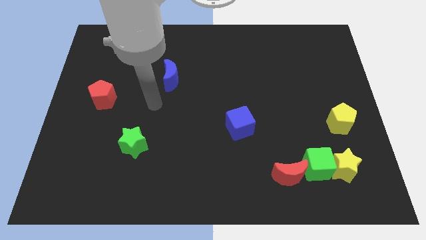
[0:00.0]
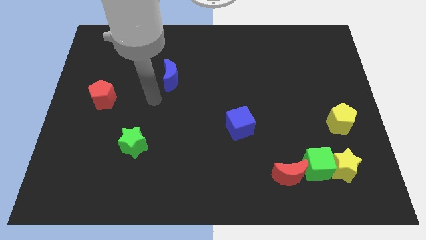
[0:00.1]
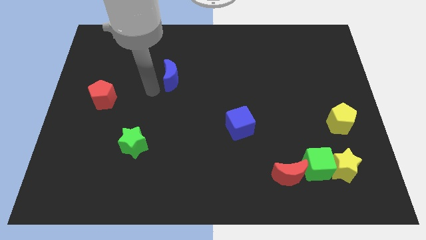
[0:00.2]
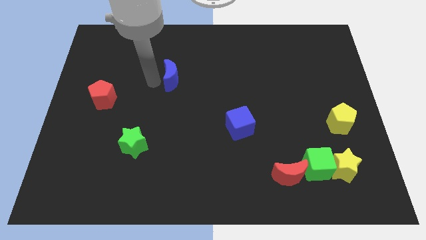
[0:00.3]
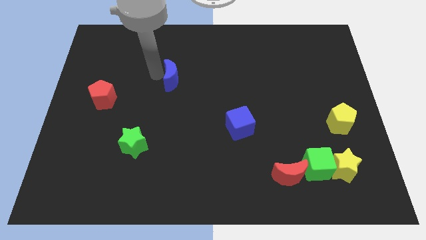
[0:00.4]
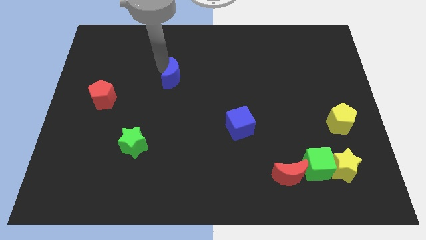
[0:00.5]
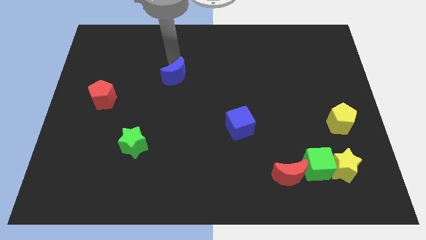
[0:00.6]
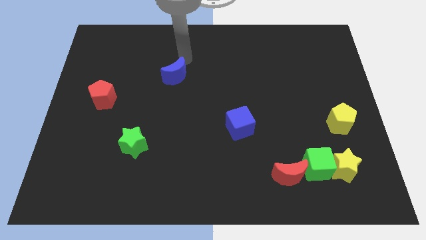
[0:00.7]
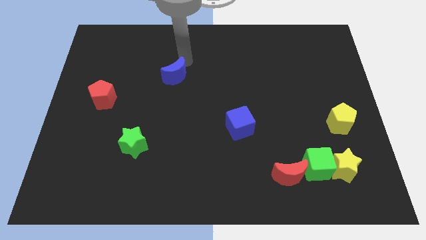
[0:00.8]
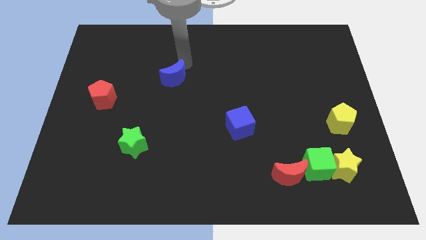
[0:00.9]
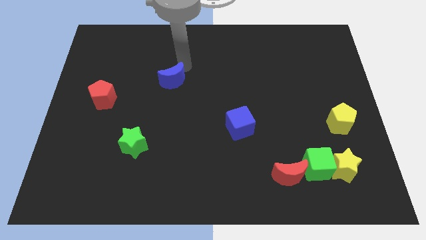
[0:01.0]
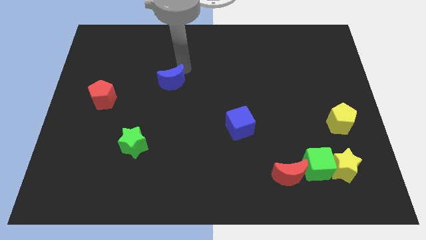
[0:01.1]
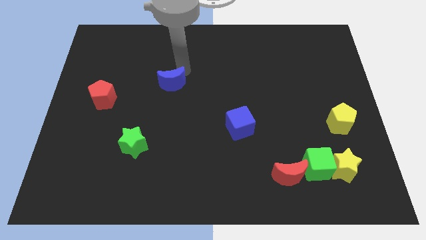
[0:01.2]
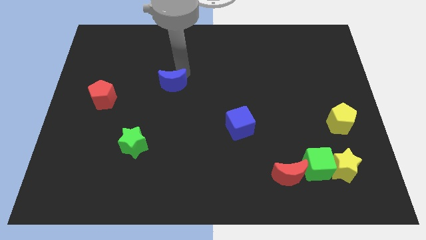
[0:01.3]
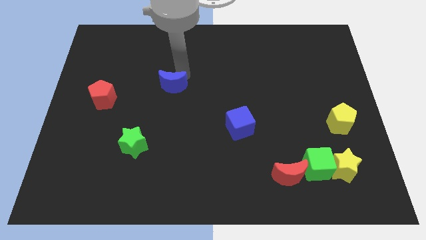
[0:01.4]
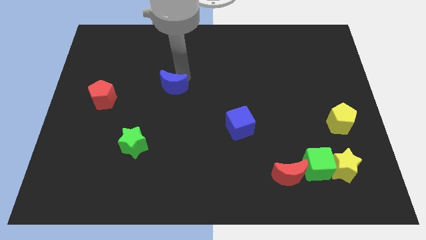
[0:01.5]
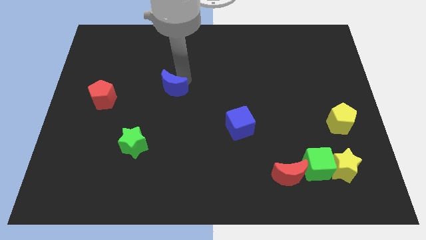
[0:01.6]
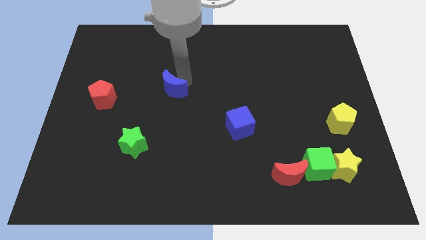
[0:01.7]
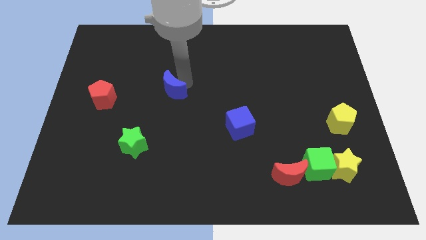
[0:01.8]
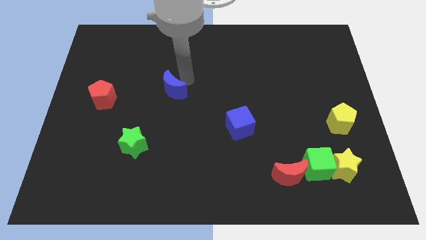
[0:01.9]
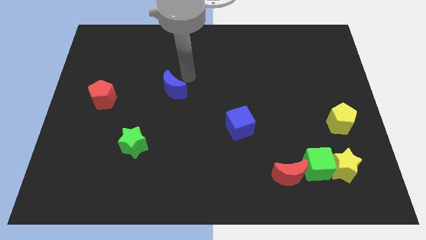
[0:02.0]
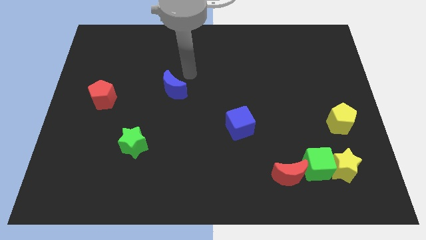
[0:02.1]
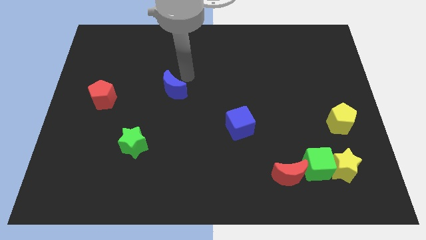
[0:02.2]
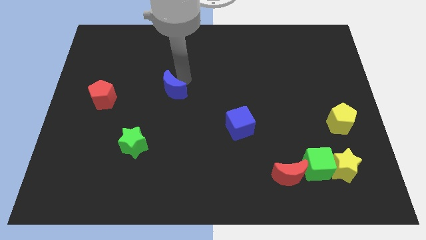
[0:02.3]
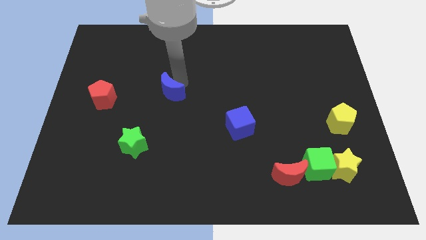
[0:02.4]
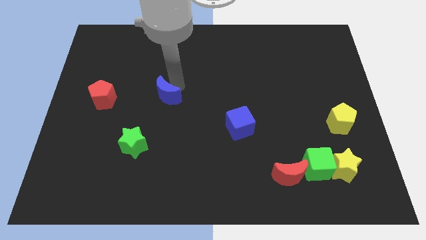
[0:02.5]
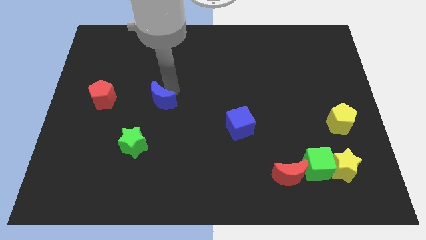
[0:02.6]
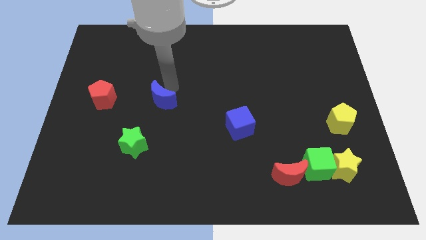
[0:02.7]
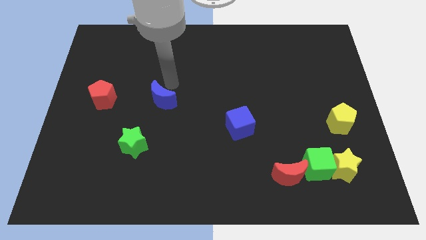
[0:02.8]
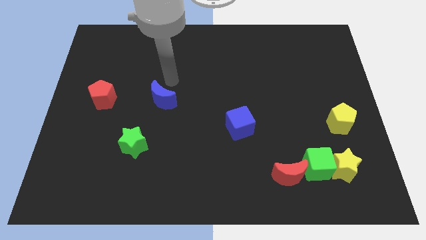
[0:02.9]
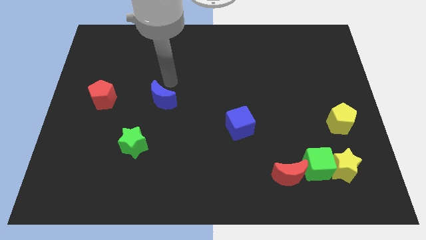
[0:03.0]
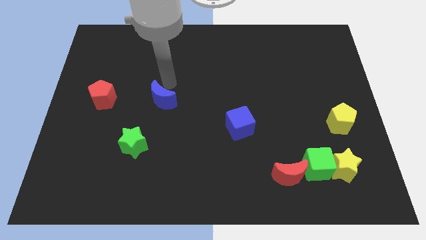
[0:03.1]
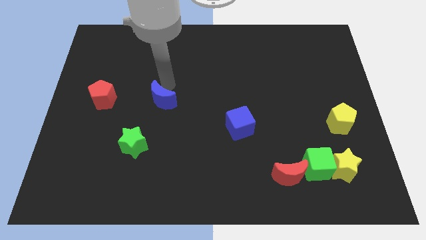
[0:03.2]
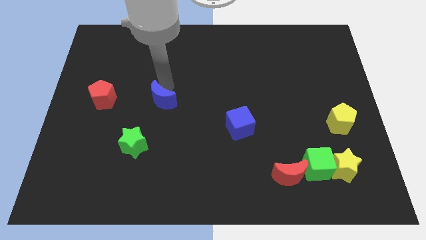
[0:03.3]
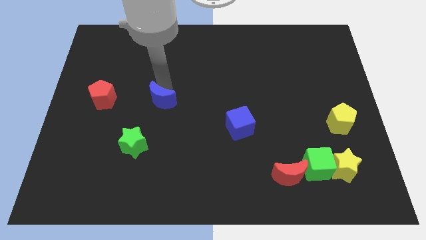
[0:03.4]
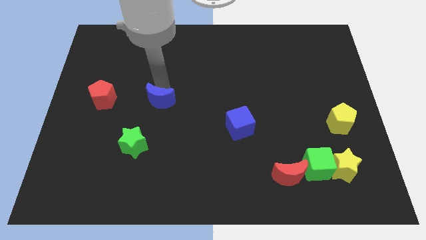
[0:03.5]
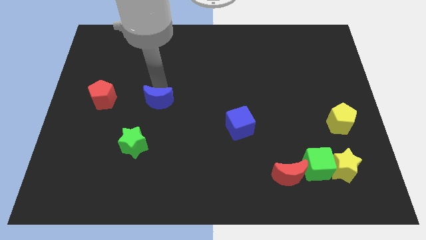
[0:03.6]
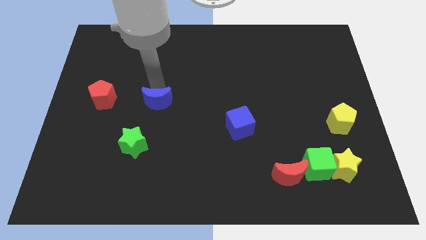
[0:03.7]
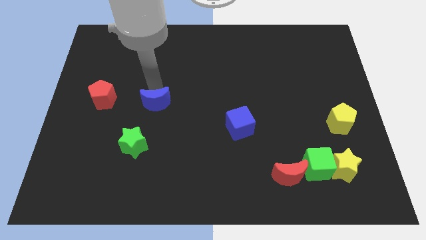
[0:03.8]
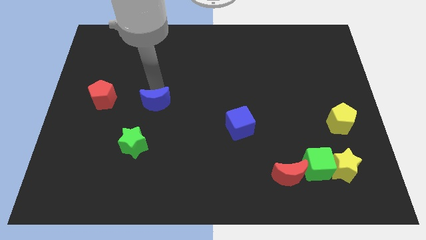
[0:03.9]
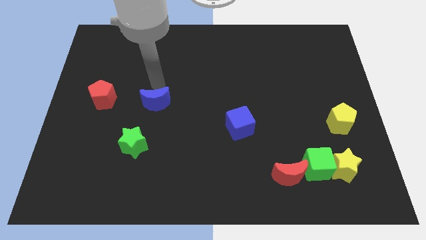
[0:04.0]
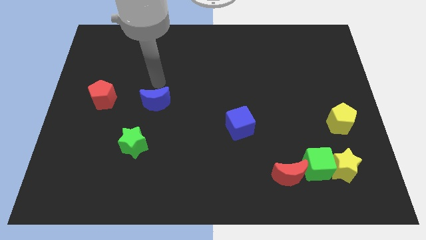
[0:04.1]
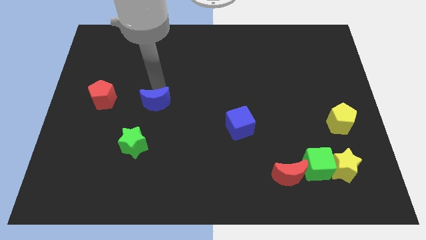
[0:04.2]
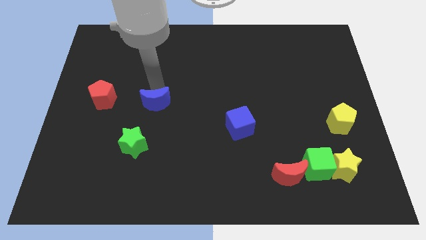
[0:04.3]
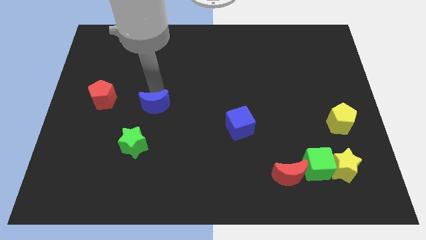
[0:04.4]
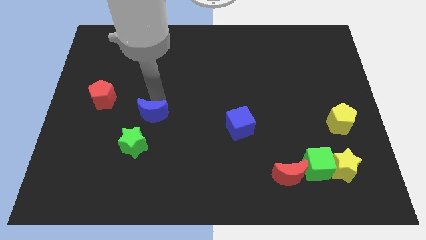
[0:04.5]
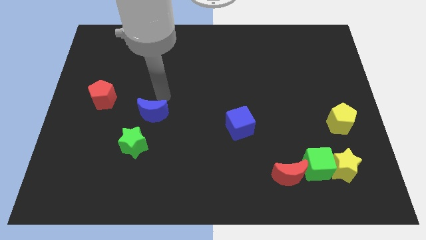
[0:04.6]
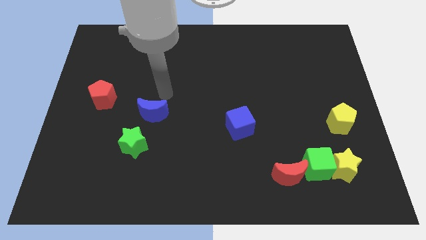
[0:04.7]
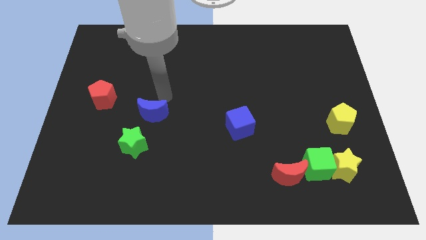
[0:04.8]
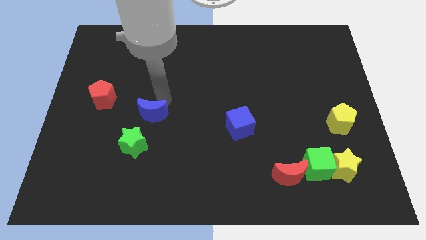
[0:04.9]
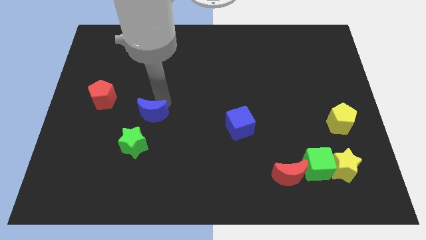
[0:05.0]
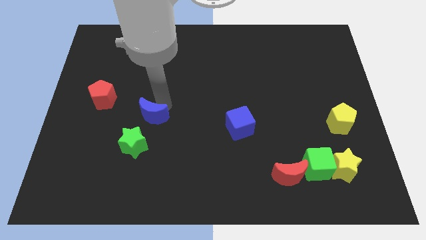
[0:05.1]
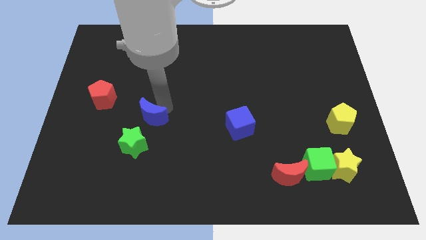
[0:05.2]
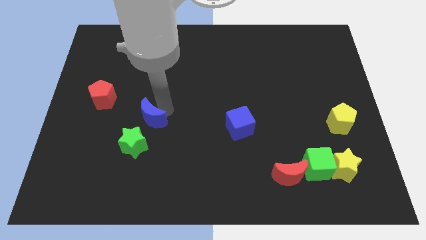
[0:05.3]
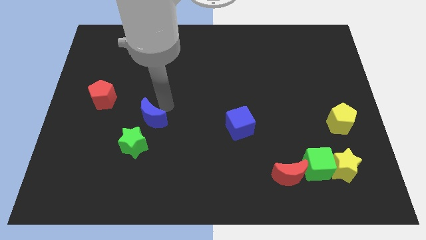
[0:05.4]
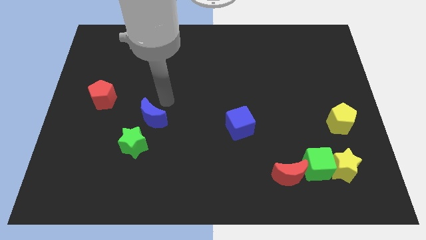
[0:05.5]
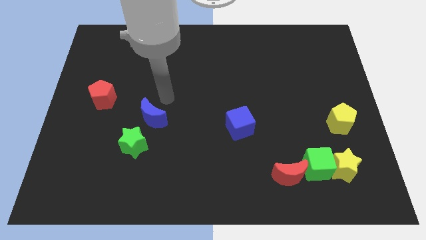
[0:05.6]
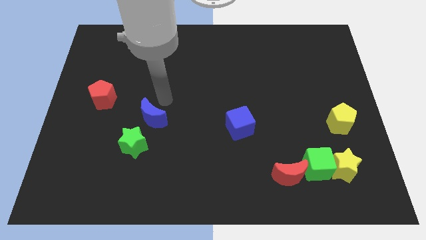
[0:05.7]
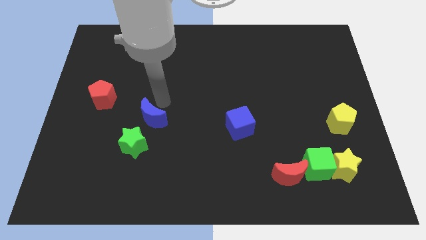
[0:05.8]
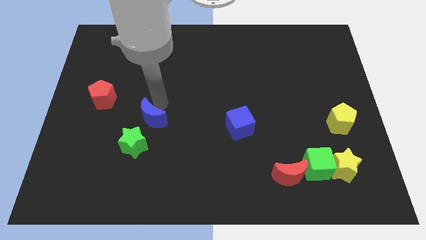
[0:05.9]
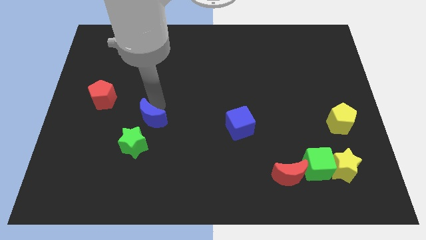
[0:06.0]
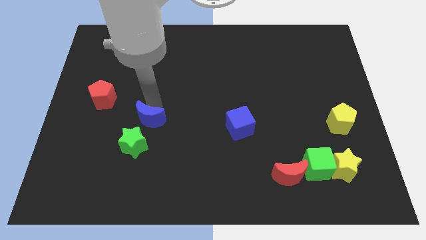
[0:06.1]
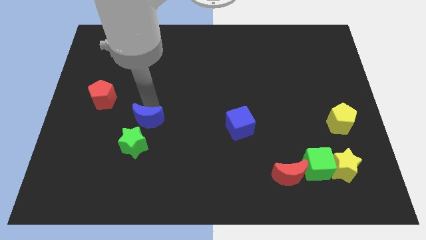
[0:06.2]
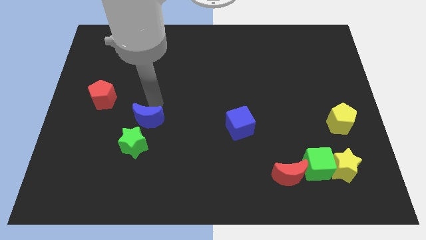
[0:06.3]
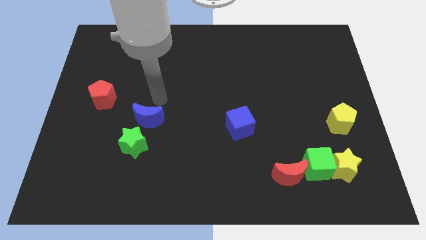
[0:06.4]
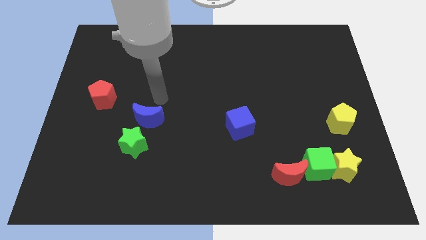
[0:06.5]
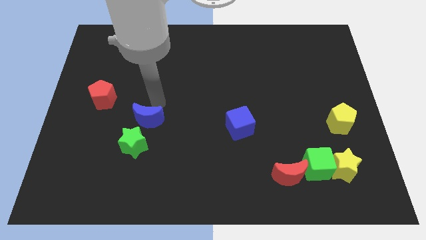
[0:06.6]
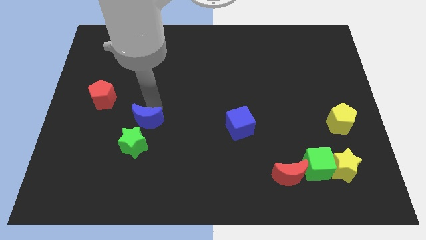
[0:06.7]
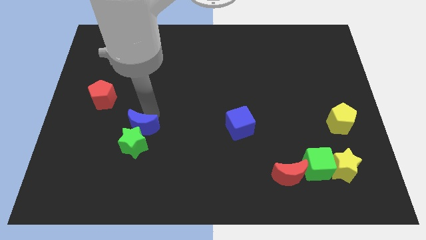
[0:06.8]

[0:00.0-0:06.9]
put the blue moon close to the green star

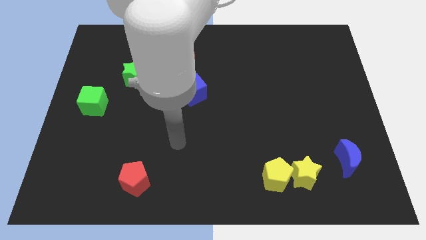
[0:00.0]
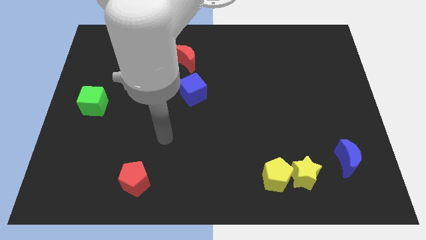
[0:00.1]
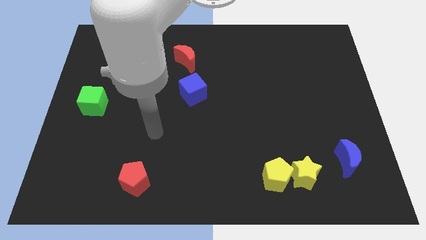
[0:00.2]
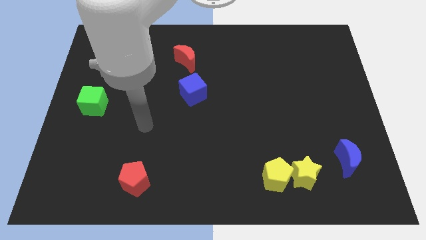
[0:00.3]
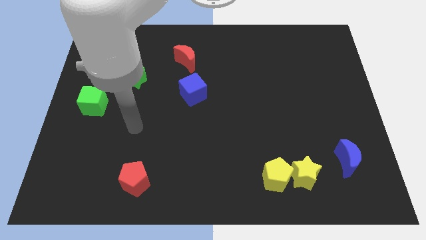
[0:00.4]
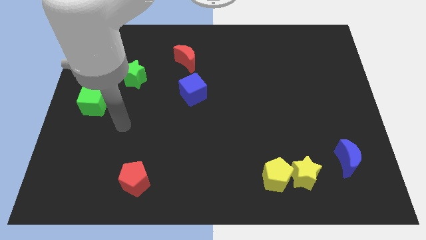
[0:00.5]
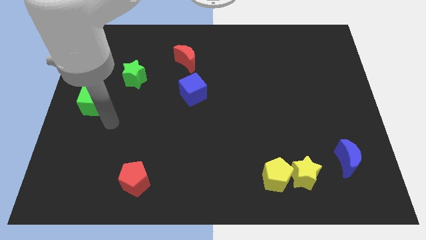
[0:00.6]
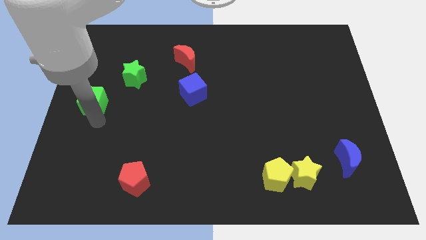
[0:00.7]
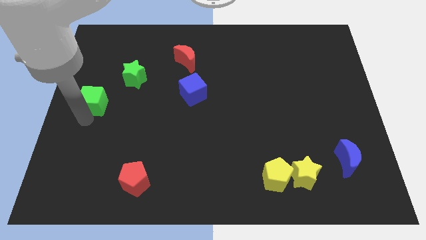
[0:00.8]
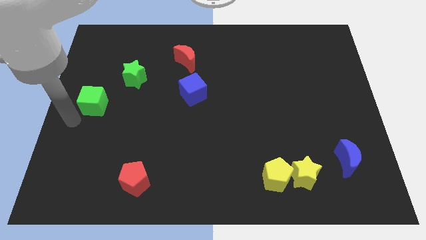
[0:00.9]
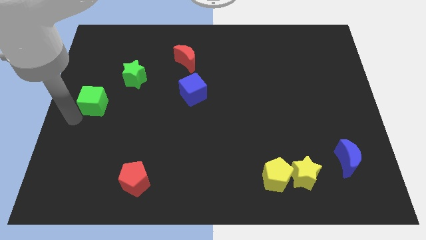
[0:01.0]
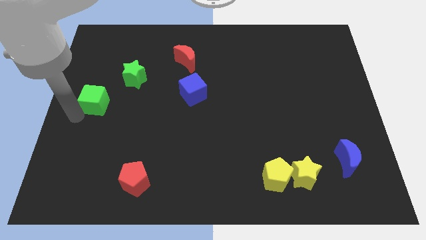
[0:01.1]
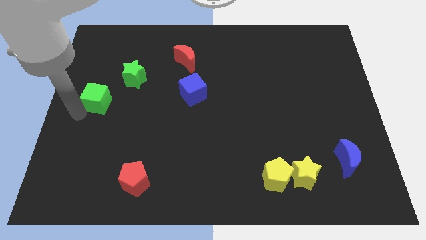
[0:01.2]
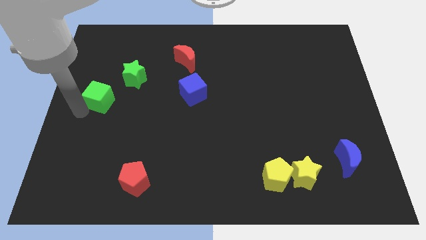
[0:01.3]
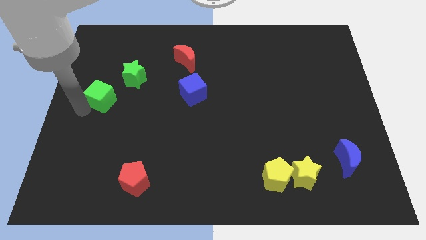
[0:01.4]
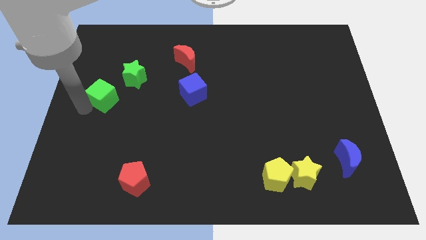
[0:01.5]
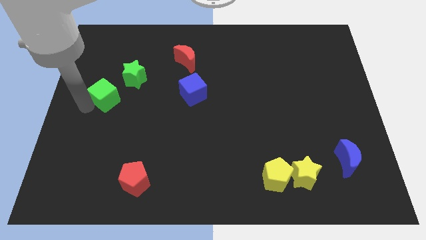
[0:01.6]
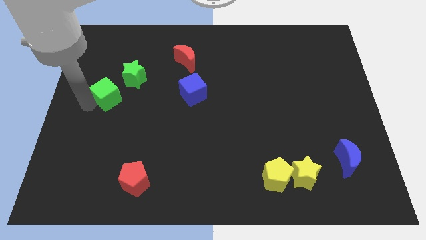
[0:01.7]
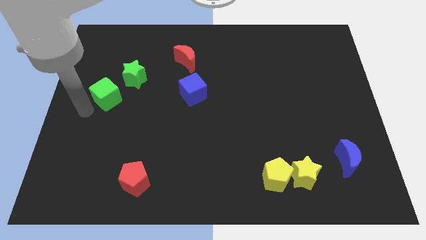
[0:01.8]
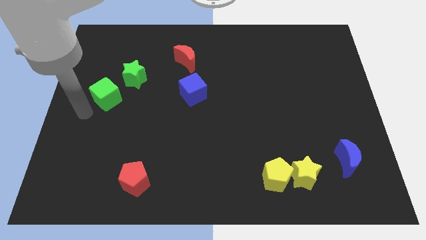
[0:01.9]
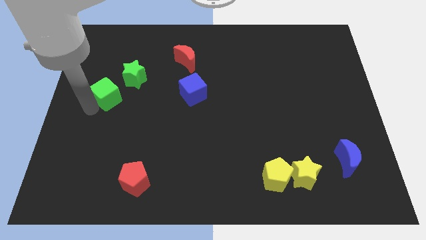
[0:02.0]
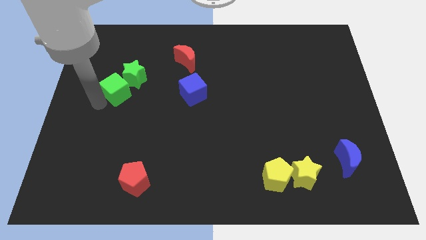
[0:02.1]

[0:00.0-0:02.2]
push the green cube close to the green star
